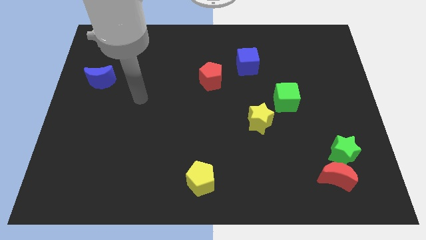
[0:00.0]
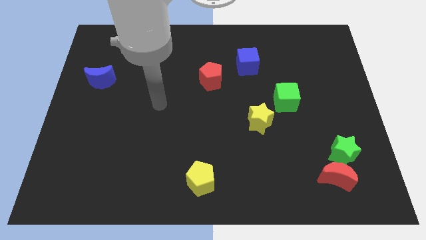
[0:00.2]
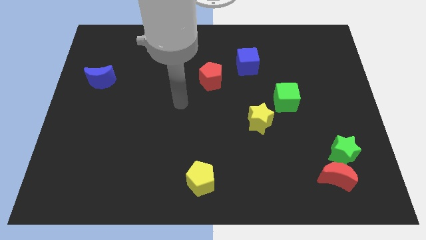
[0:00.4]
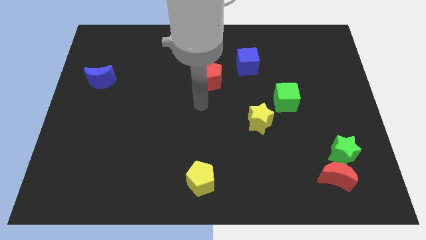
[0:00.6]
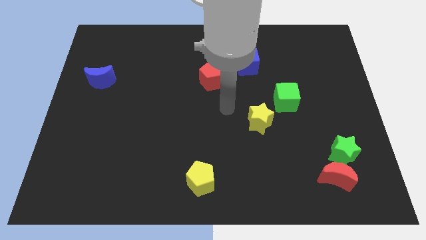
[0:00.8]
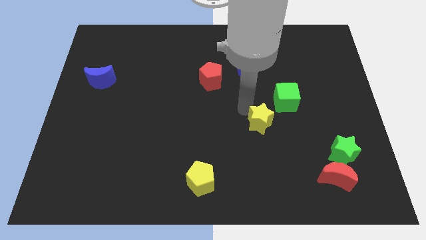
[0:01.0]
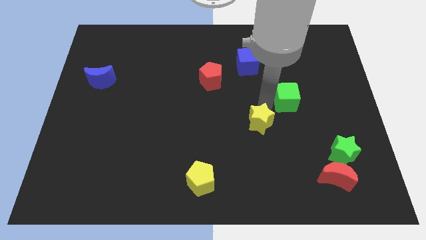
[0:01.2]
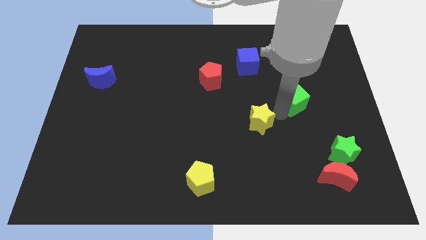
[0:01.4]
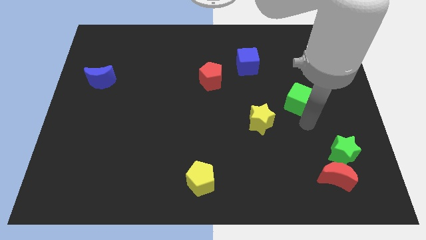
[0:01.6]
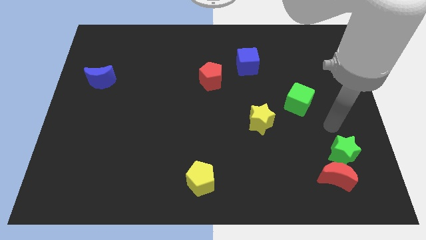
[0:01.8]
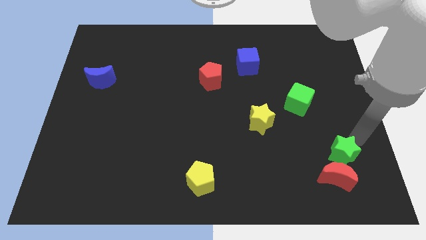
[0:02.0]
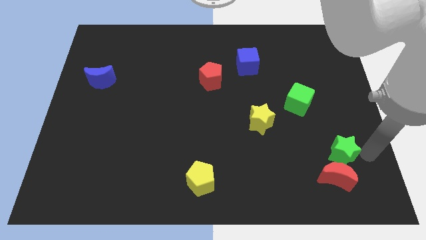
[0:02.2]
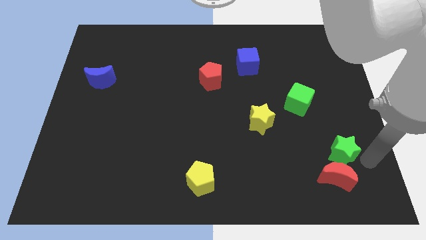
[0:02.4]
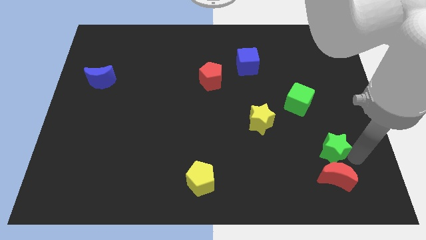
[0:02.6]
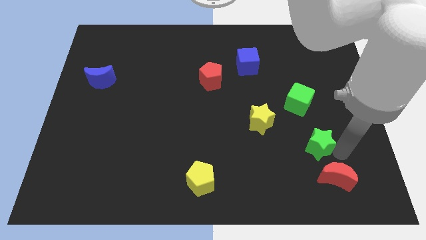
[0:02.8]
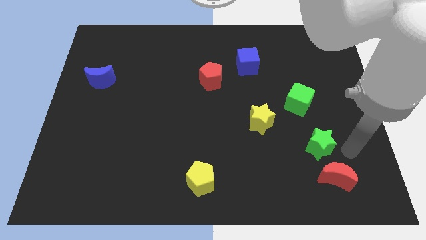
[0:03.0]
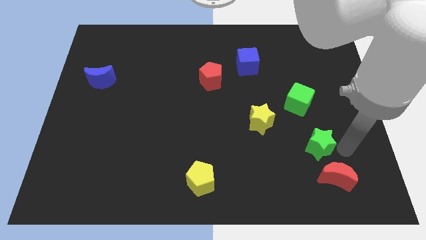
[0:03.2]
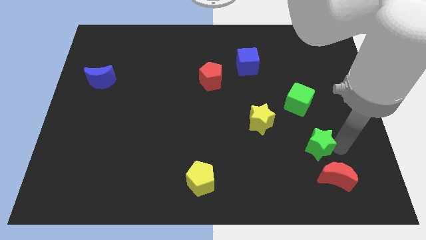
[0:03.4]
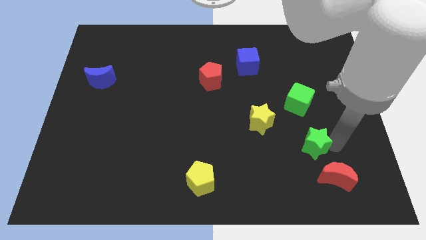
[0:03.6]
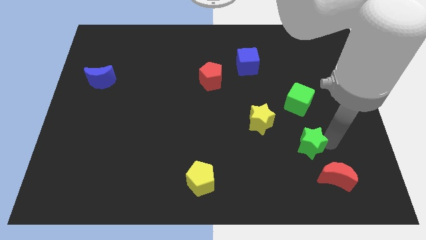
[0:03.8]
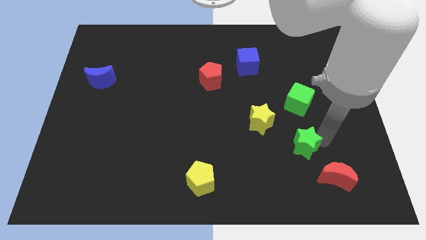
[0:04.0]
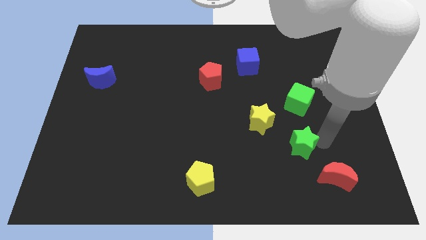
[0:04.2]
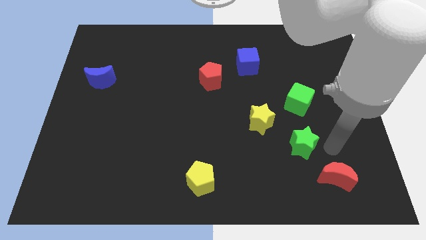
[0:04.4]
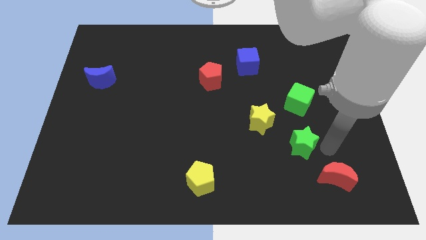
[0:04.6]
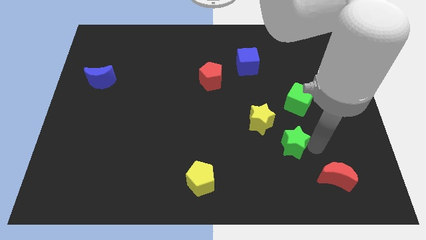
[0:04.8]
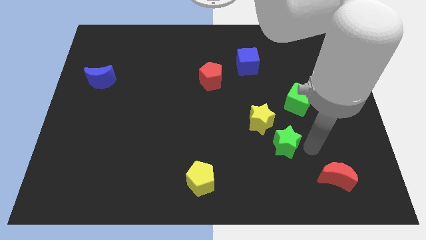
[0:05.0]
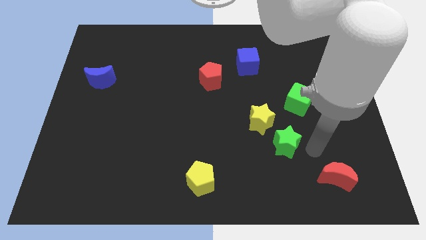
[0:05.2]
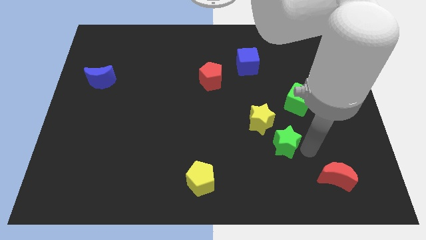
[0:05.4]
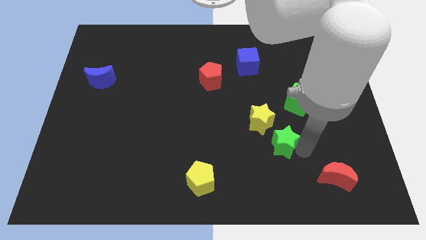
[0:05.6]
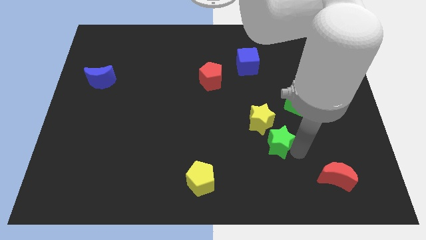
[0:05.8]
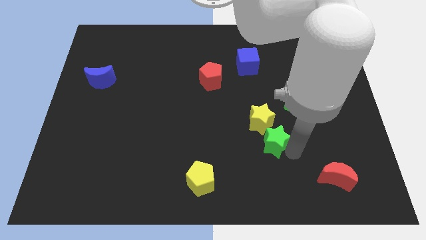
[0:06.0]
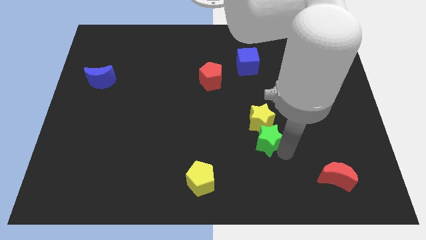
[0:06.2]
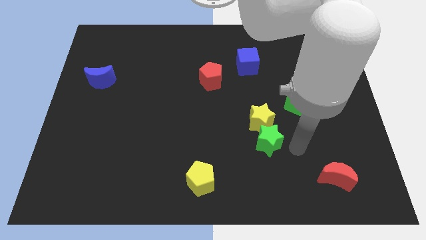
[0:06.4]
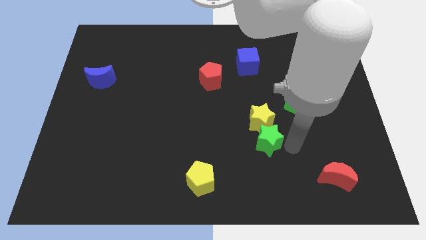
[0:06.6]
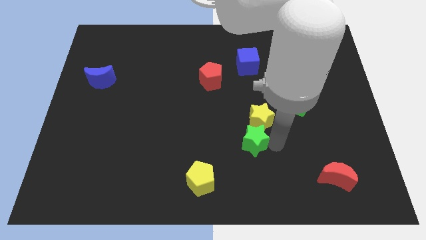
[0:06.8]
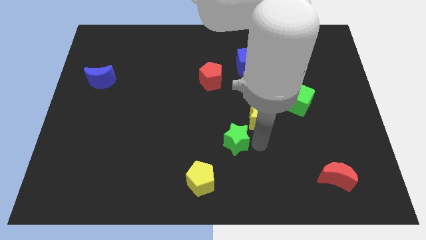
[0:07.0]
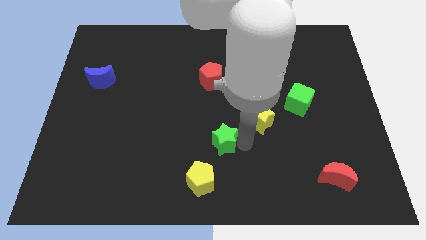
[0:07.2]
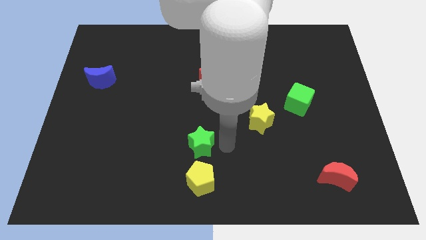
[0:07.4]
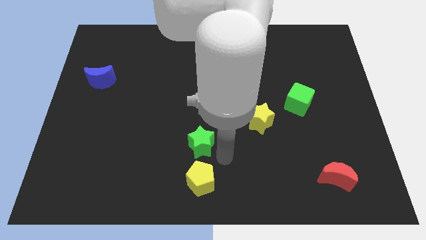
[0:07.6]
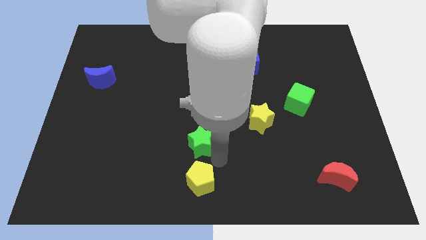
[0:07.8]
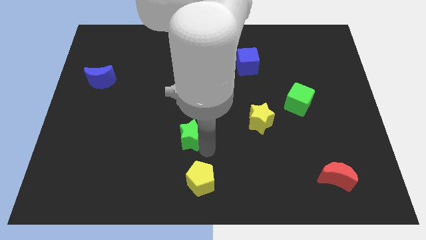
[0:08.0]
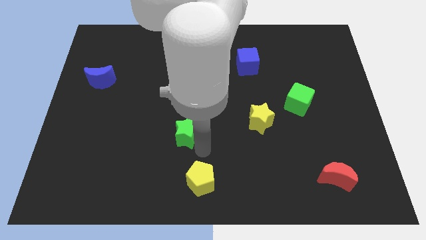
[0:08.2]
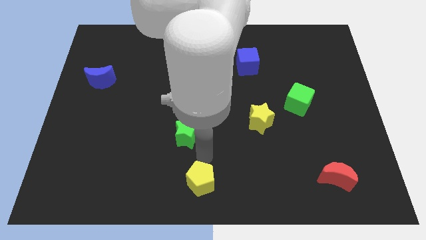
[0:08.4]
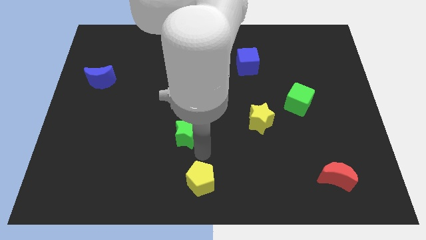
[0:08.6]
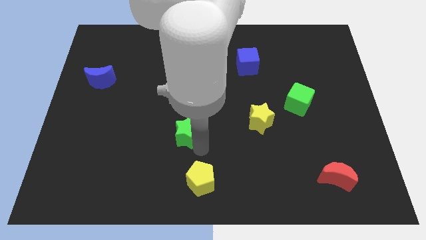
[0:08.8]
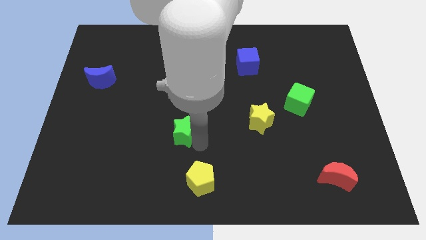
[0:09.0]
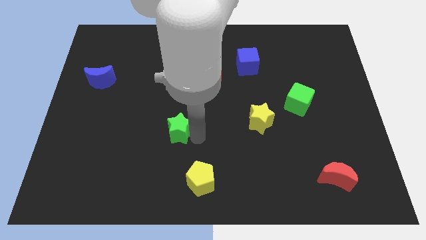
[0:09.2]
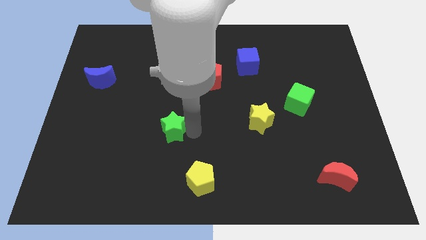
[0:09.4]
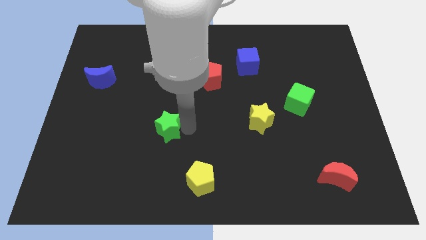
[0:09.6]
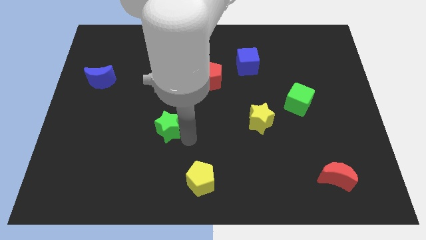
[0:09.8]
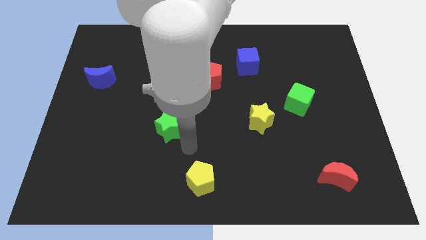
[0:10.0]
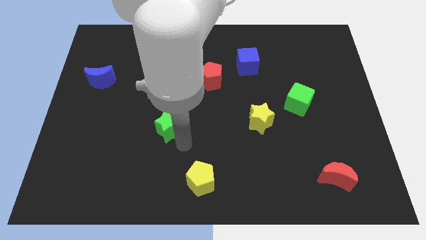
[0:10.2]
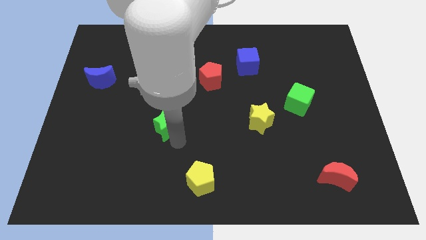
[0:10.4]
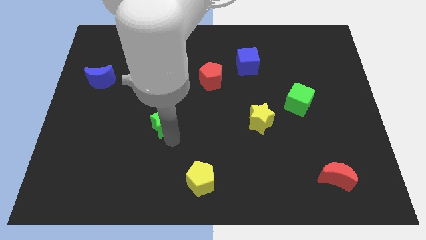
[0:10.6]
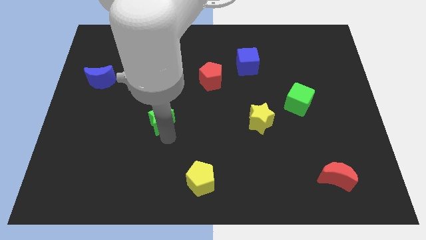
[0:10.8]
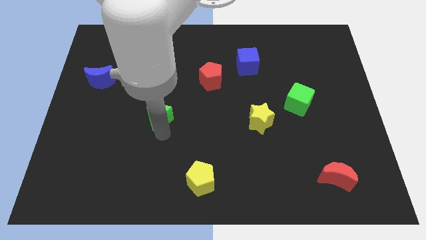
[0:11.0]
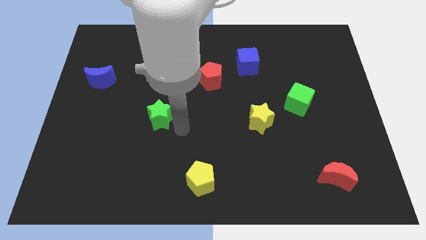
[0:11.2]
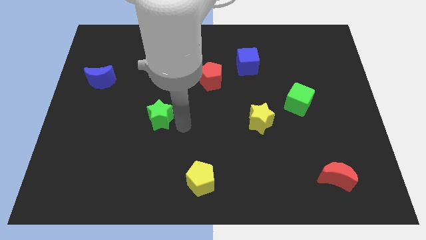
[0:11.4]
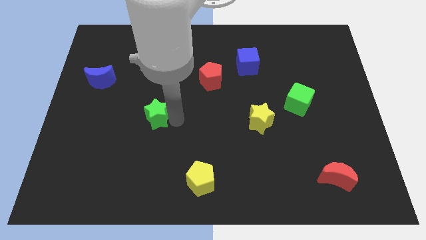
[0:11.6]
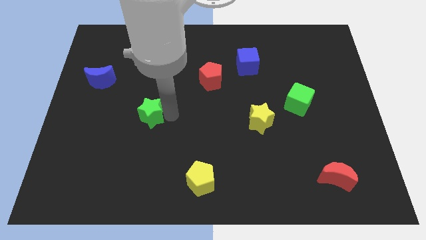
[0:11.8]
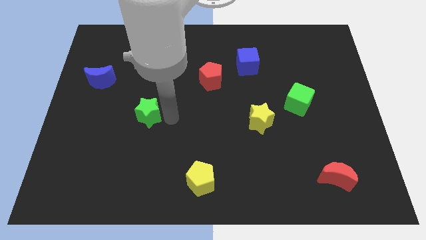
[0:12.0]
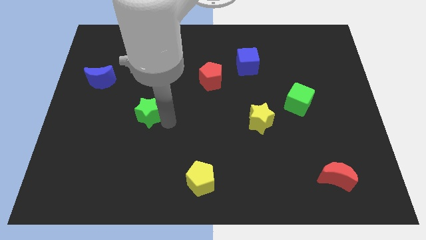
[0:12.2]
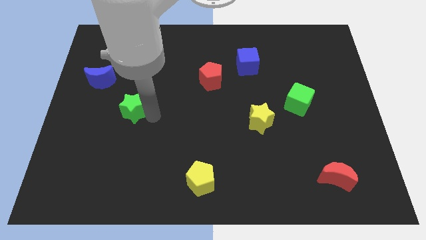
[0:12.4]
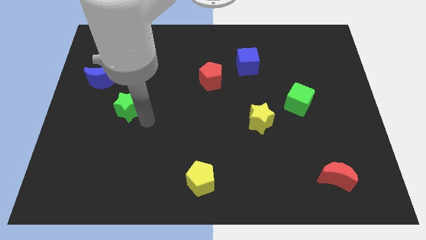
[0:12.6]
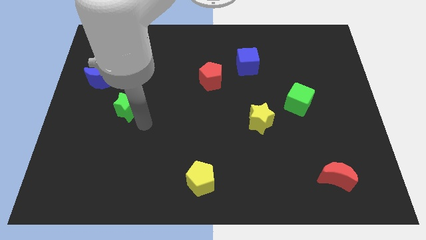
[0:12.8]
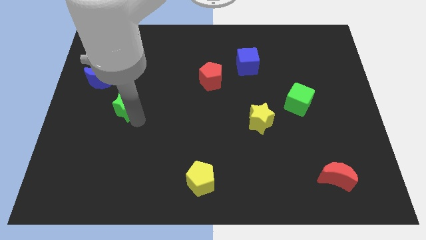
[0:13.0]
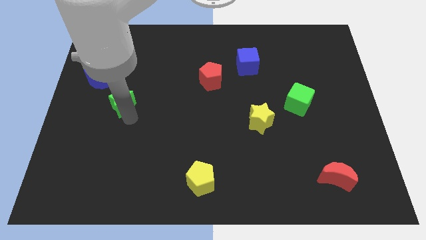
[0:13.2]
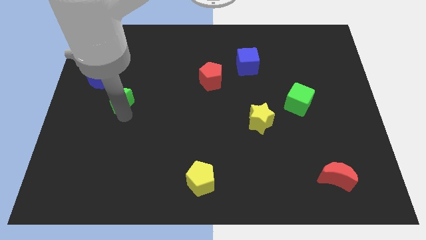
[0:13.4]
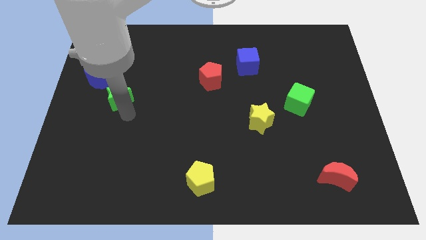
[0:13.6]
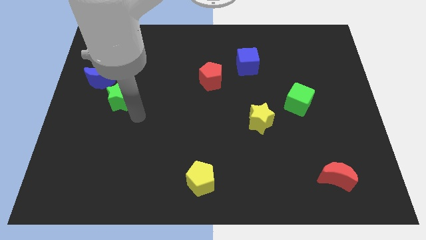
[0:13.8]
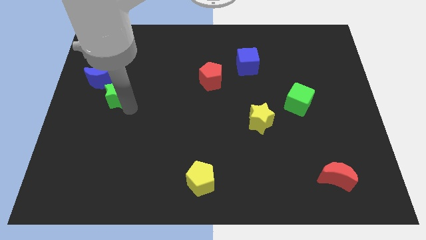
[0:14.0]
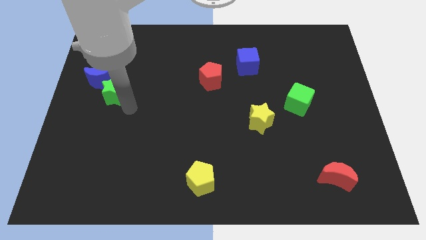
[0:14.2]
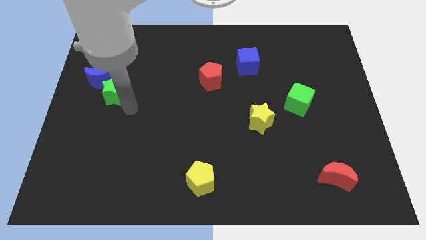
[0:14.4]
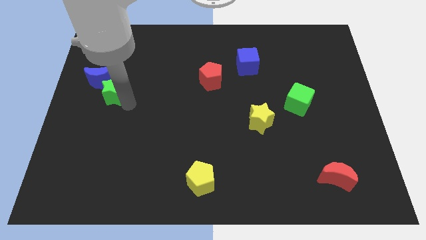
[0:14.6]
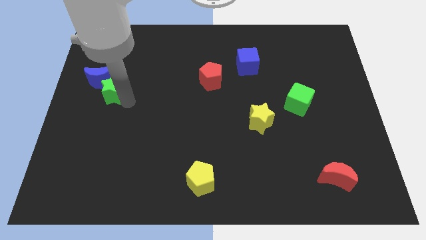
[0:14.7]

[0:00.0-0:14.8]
slide the green star to the blue moon
